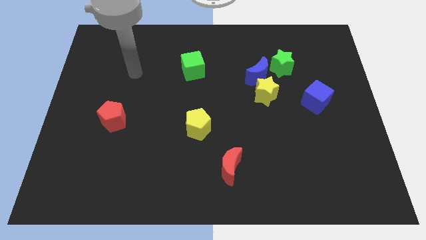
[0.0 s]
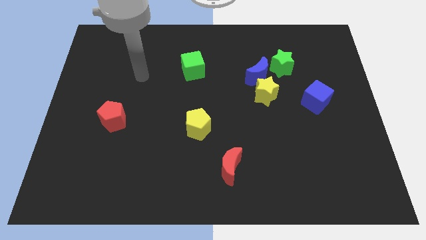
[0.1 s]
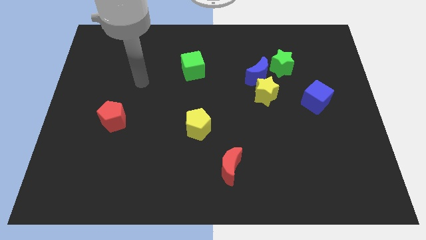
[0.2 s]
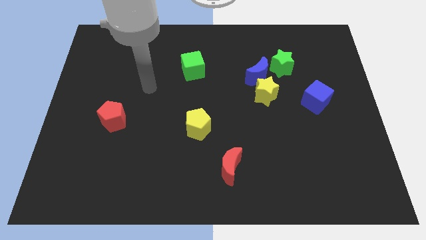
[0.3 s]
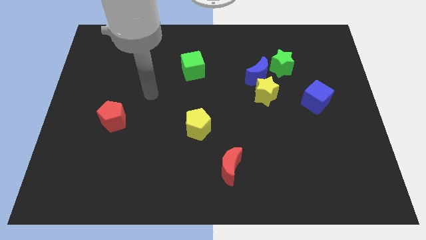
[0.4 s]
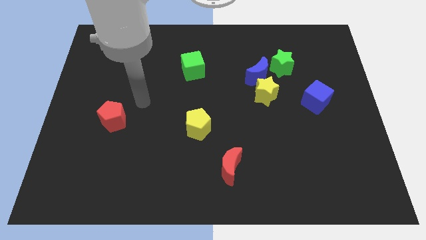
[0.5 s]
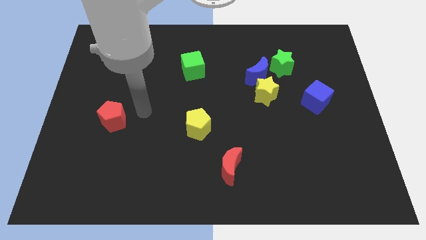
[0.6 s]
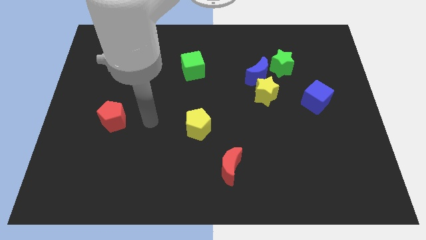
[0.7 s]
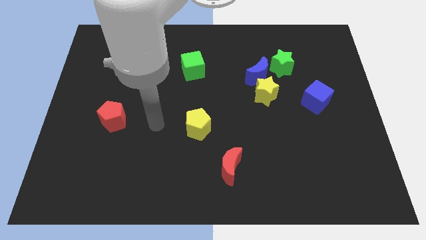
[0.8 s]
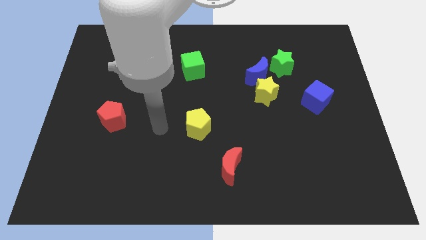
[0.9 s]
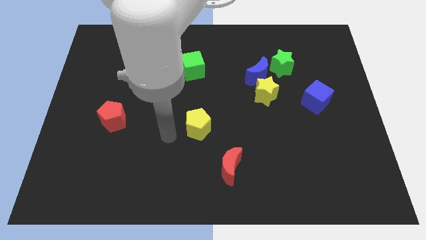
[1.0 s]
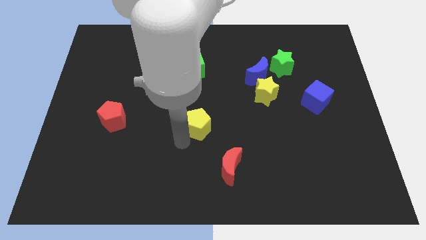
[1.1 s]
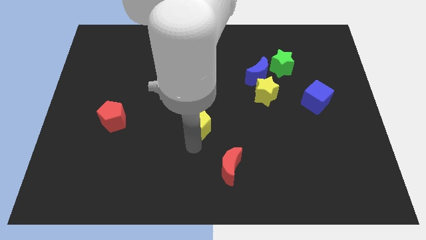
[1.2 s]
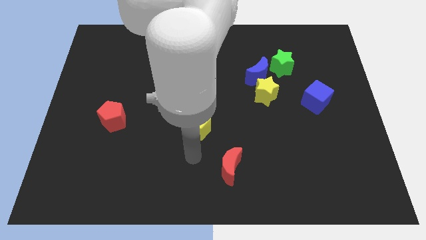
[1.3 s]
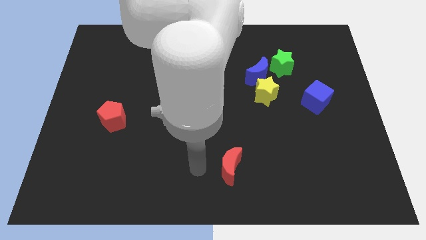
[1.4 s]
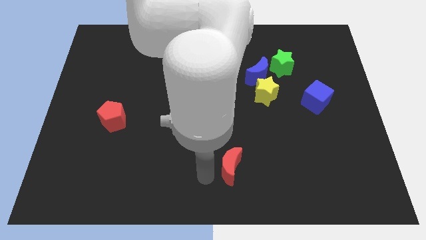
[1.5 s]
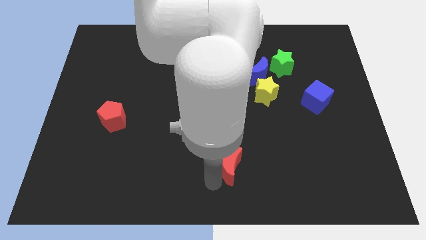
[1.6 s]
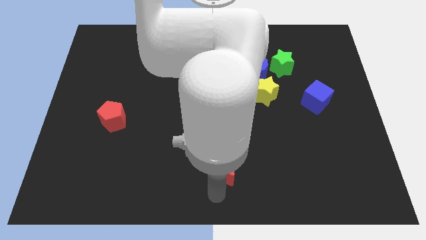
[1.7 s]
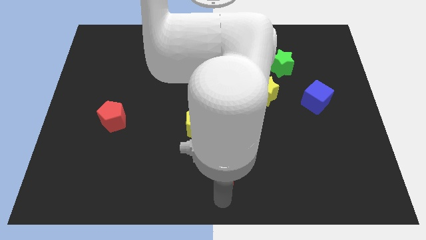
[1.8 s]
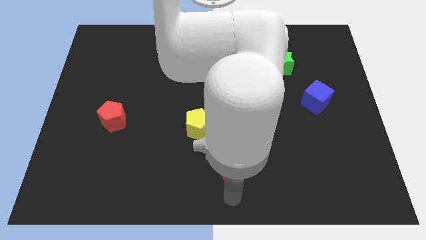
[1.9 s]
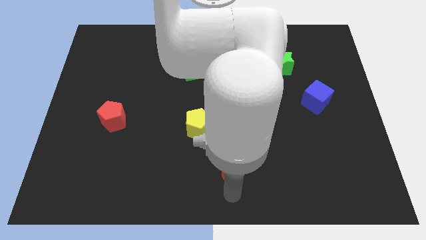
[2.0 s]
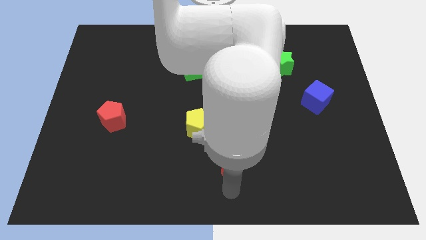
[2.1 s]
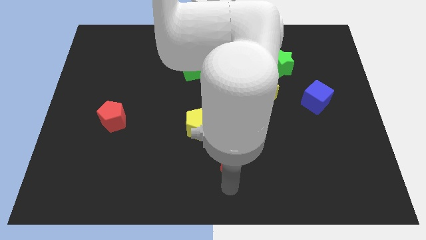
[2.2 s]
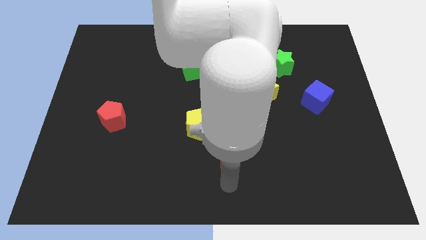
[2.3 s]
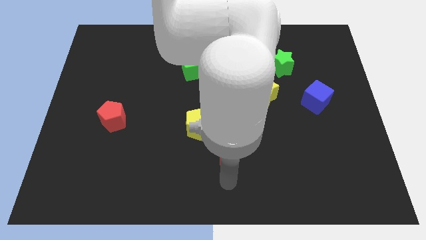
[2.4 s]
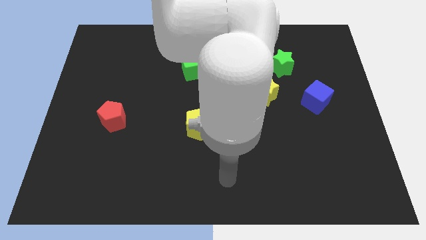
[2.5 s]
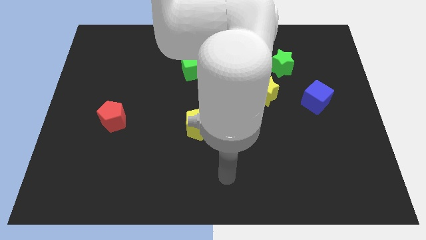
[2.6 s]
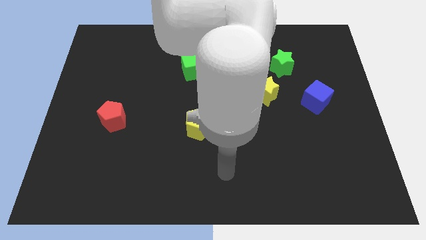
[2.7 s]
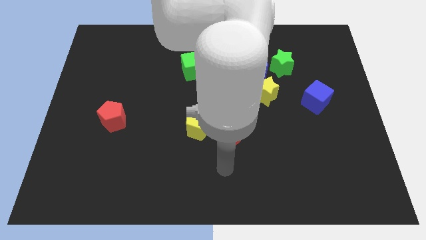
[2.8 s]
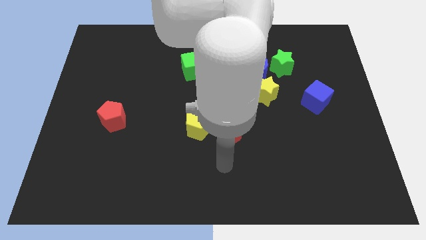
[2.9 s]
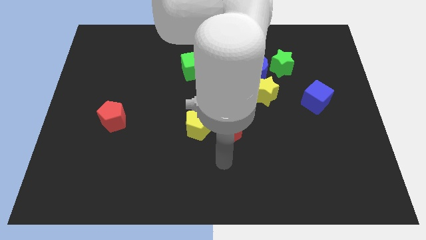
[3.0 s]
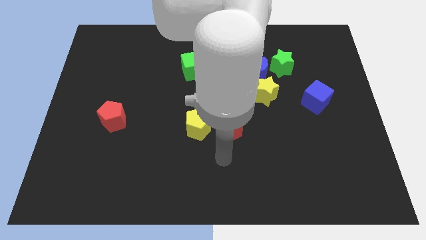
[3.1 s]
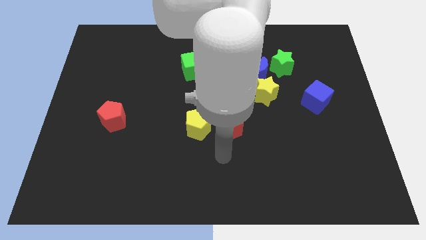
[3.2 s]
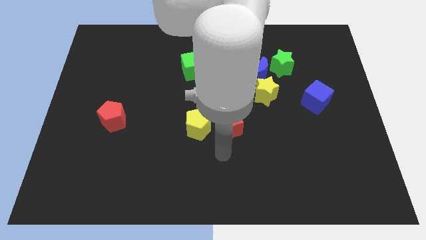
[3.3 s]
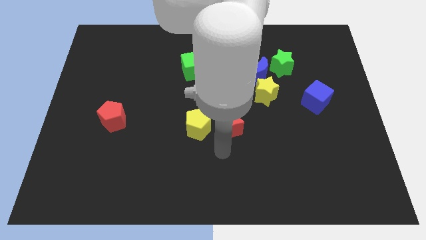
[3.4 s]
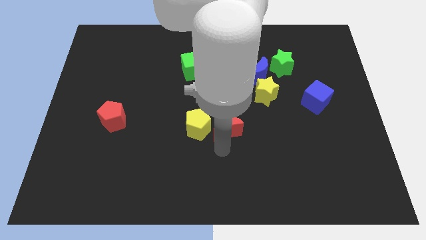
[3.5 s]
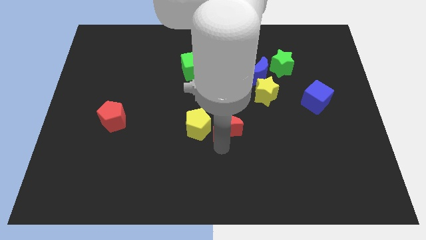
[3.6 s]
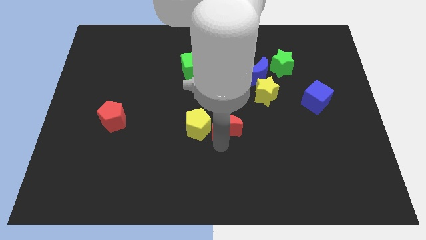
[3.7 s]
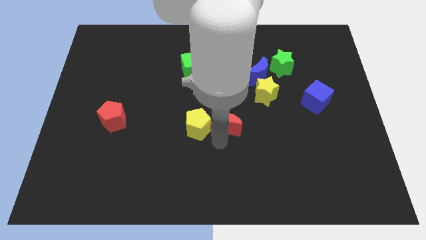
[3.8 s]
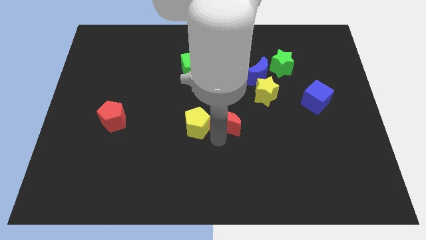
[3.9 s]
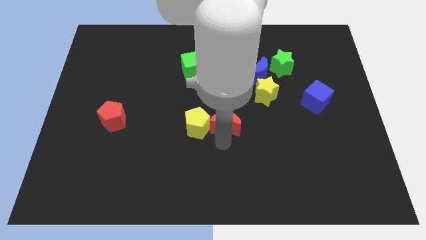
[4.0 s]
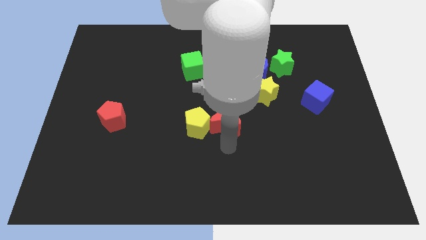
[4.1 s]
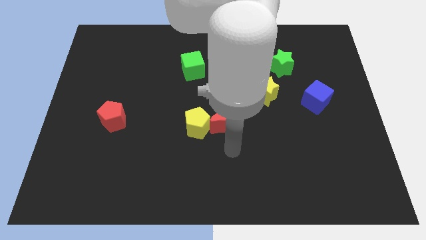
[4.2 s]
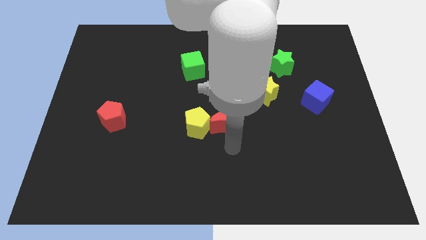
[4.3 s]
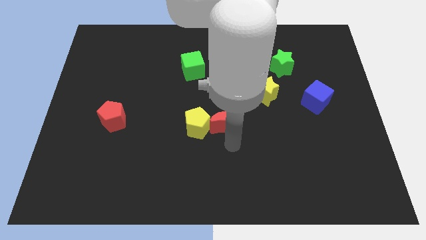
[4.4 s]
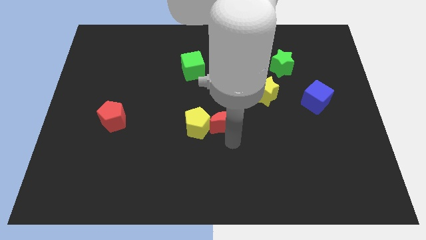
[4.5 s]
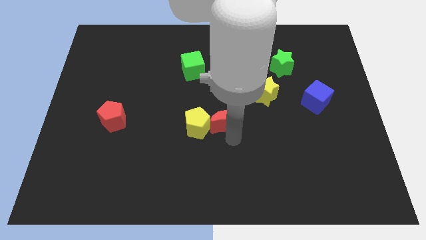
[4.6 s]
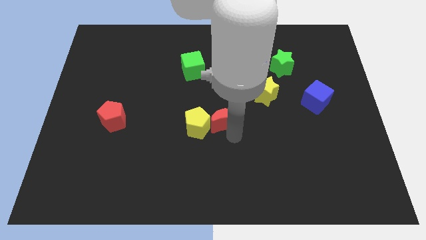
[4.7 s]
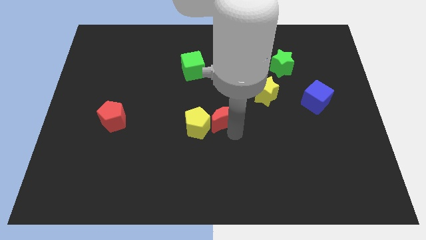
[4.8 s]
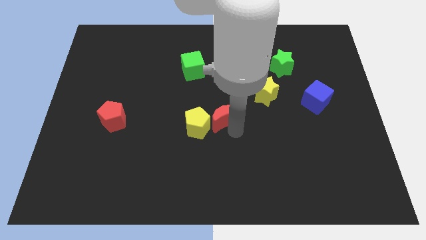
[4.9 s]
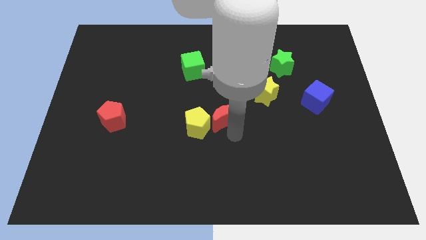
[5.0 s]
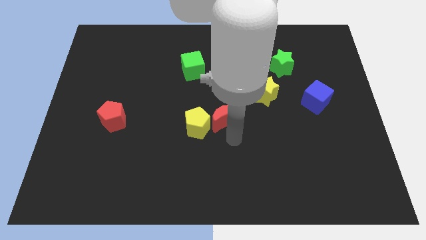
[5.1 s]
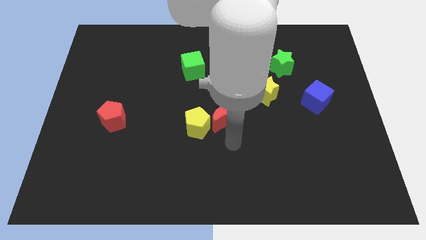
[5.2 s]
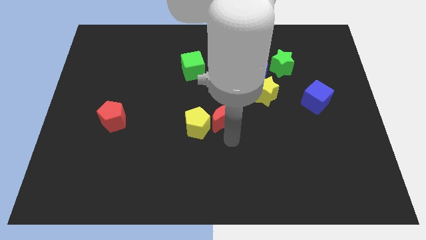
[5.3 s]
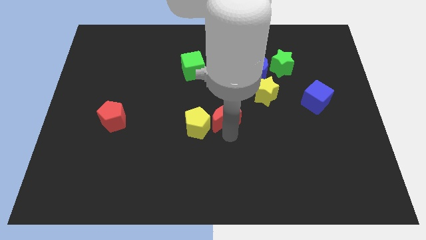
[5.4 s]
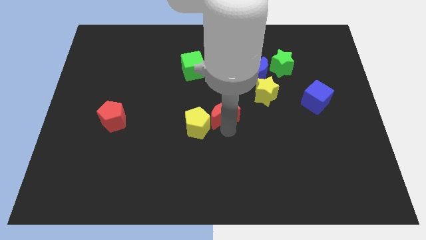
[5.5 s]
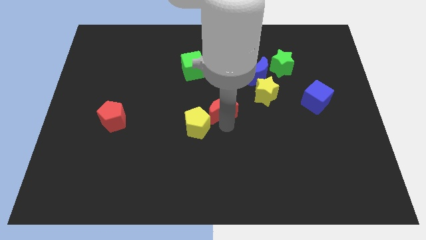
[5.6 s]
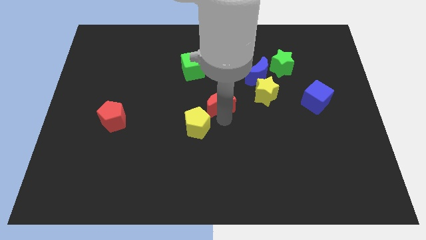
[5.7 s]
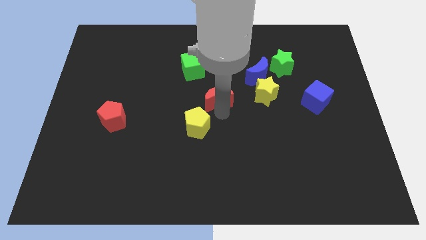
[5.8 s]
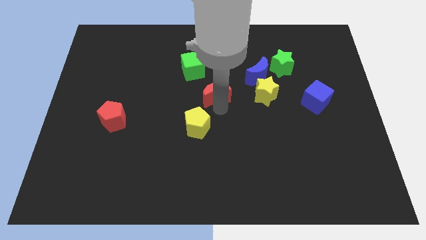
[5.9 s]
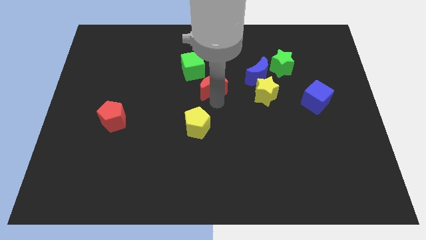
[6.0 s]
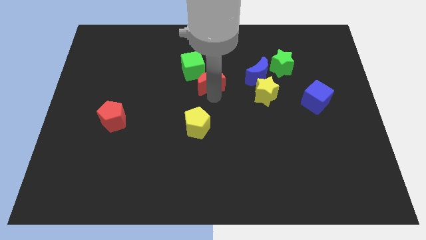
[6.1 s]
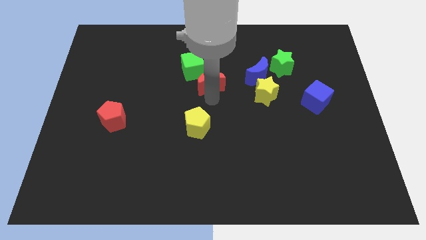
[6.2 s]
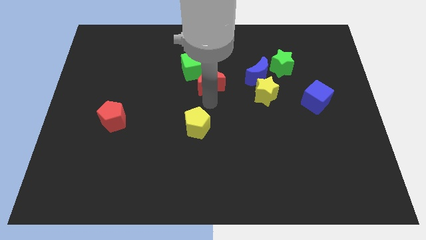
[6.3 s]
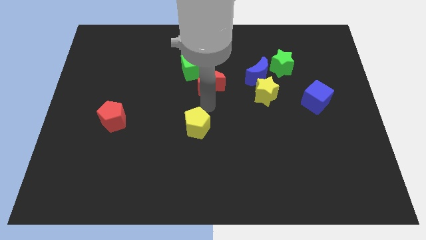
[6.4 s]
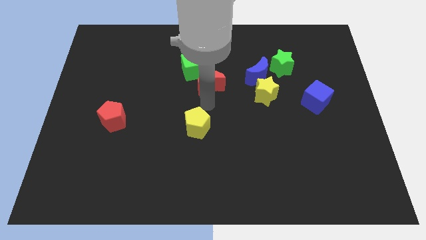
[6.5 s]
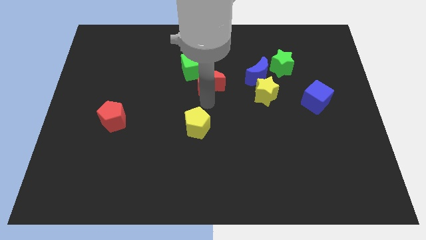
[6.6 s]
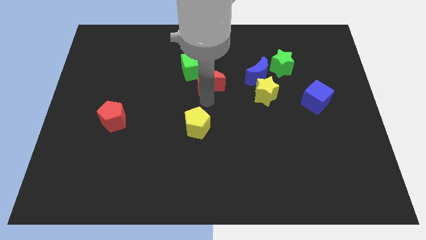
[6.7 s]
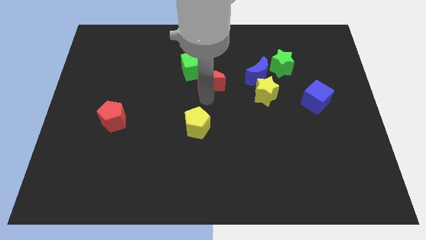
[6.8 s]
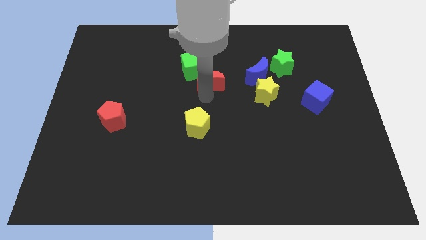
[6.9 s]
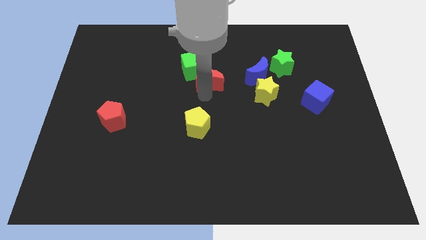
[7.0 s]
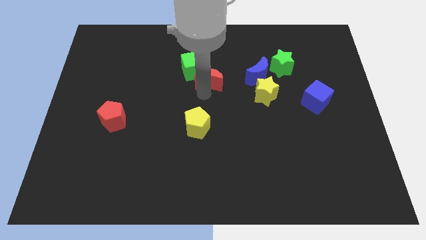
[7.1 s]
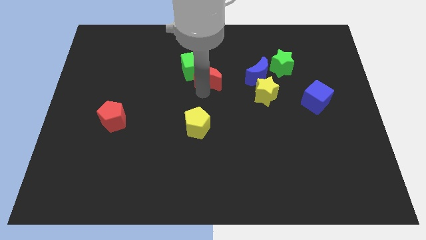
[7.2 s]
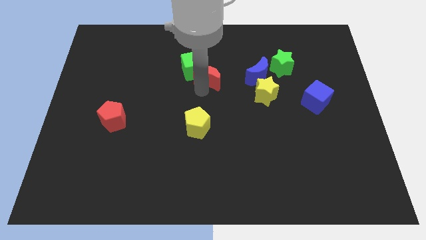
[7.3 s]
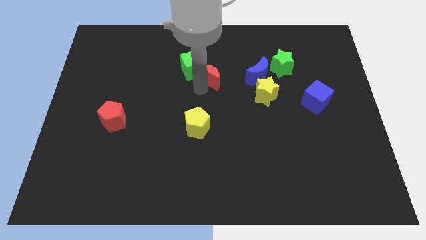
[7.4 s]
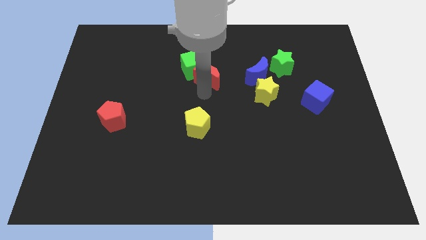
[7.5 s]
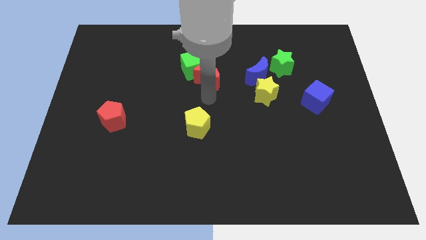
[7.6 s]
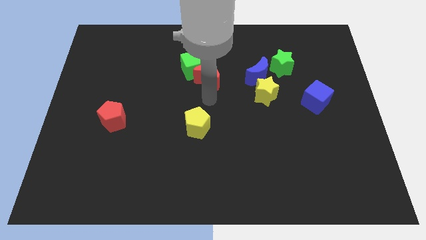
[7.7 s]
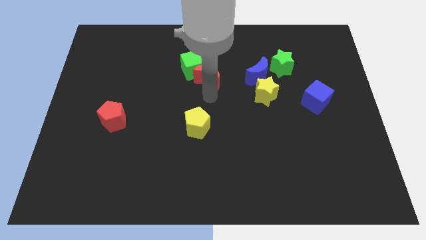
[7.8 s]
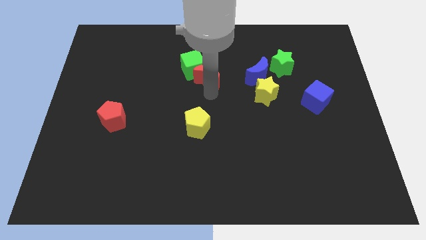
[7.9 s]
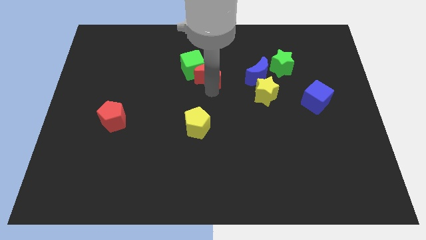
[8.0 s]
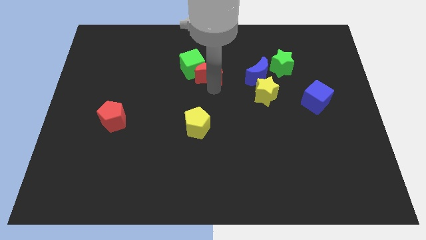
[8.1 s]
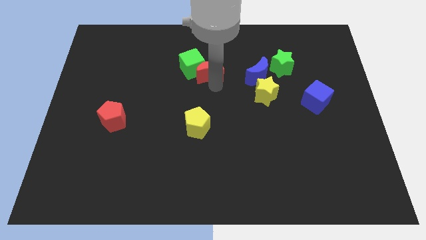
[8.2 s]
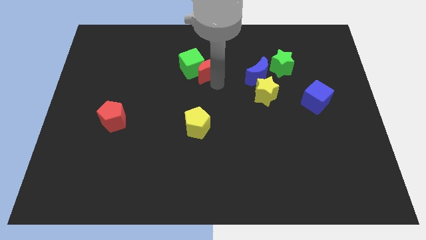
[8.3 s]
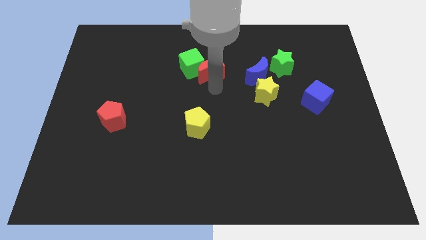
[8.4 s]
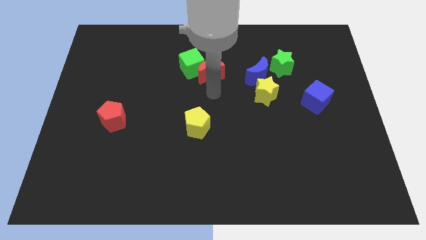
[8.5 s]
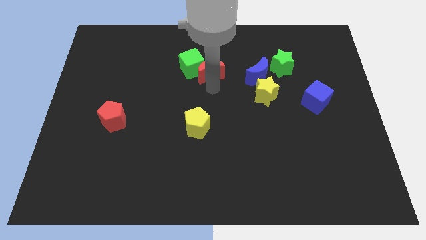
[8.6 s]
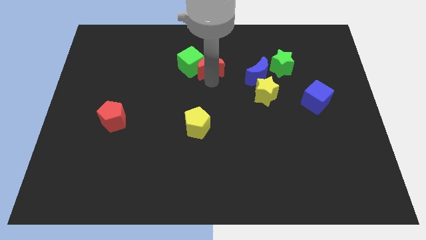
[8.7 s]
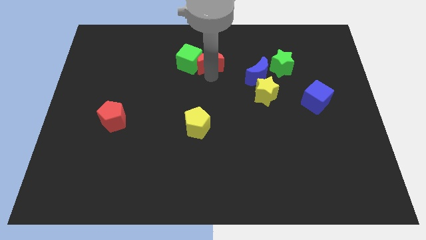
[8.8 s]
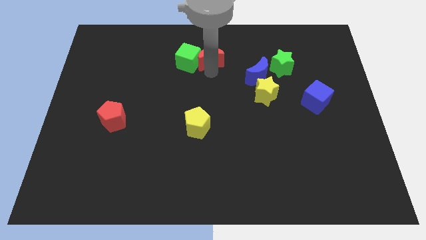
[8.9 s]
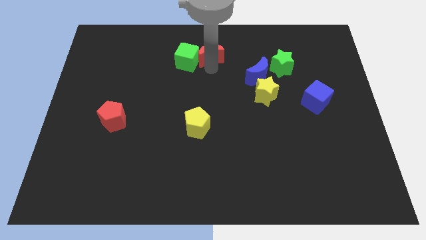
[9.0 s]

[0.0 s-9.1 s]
push the red moon to the towards your base
